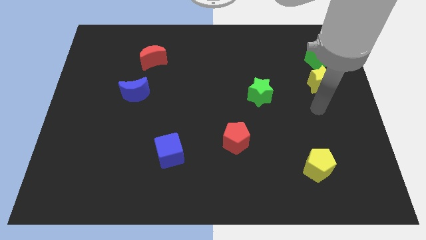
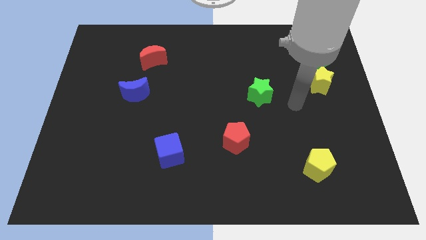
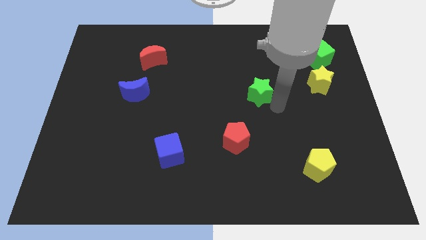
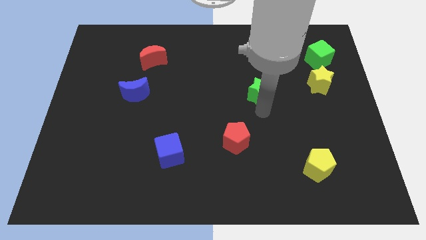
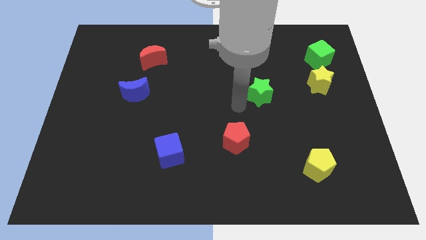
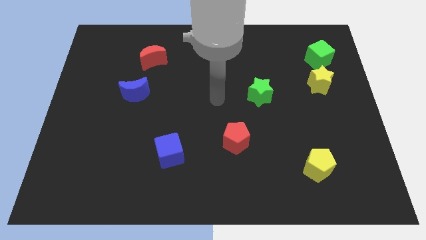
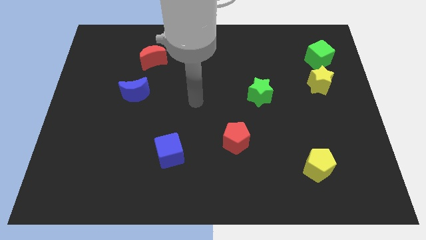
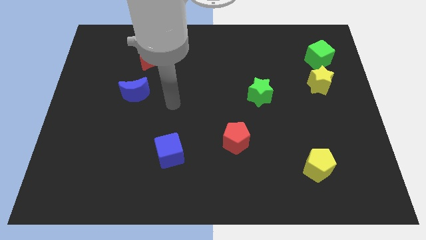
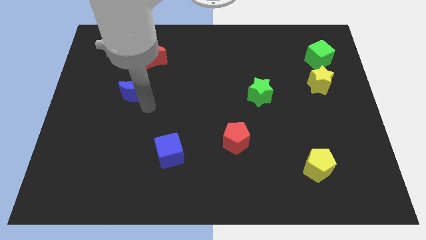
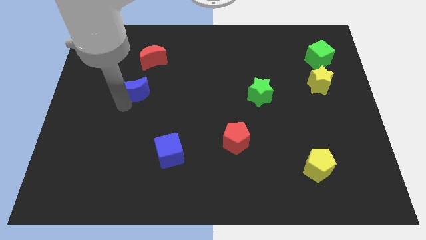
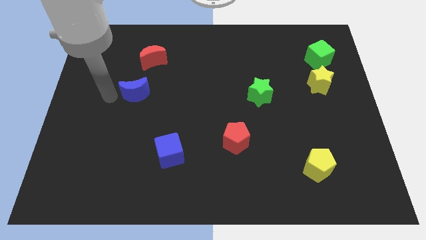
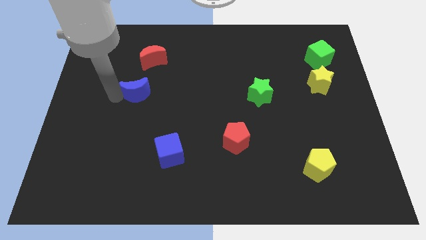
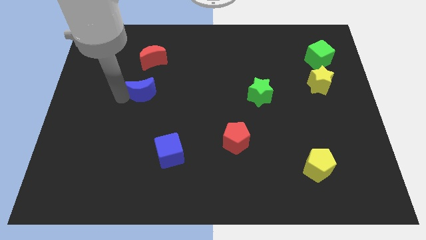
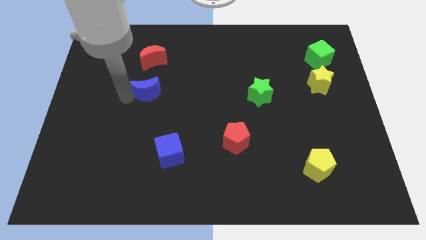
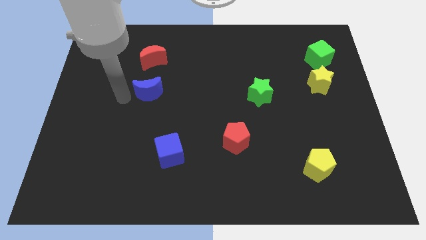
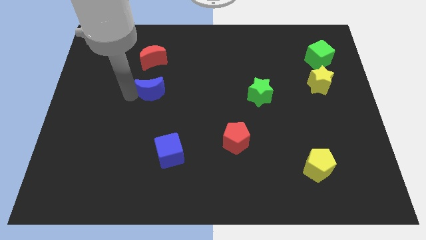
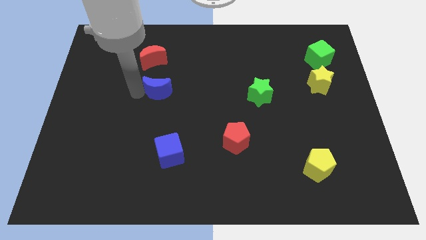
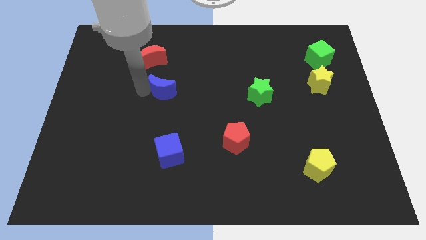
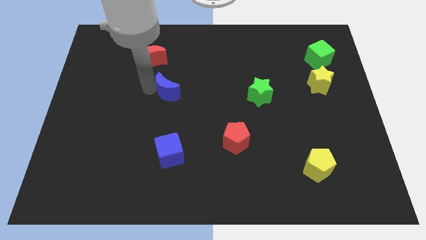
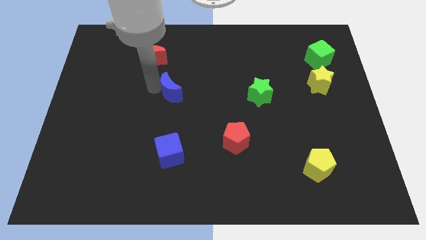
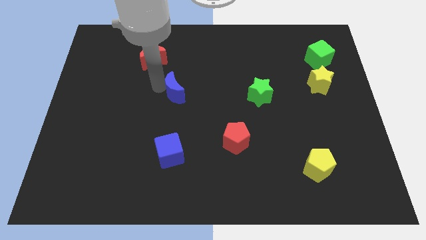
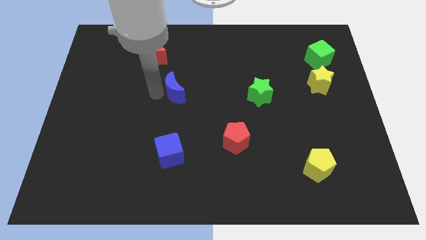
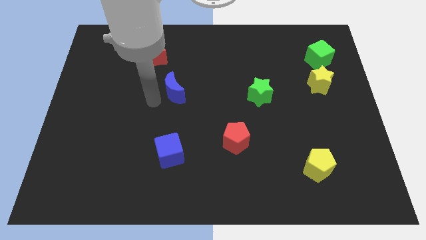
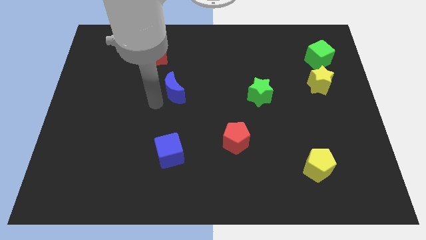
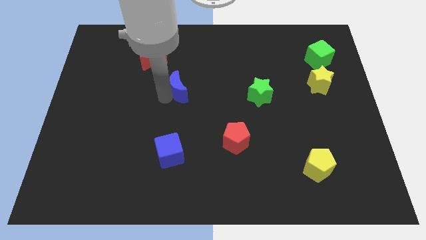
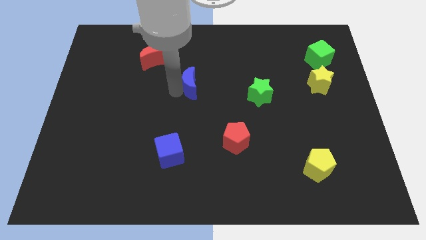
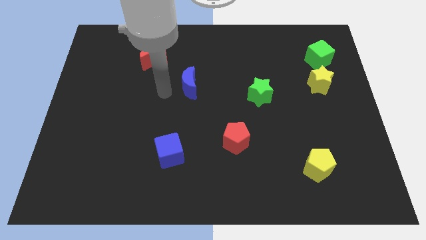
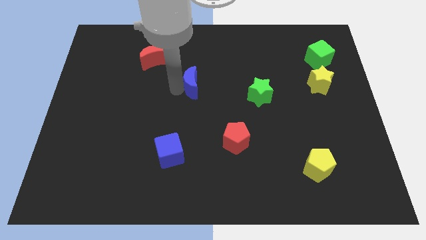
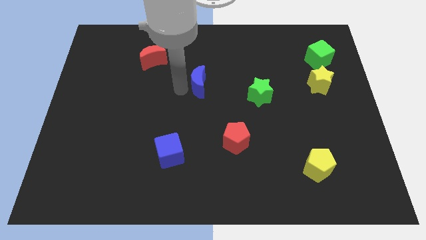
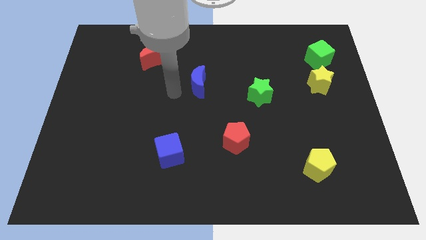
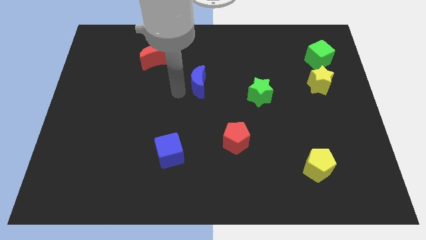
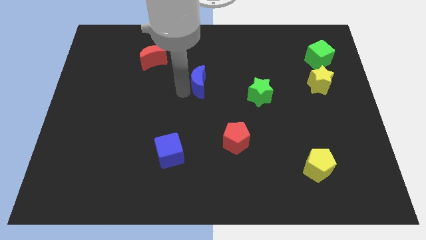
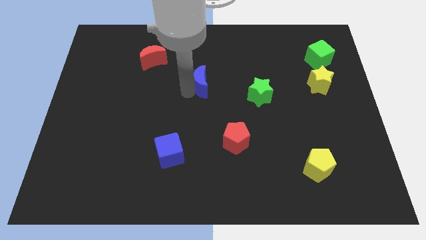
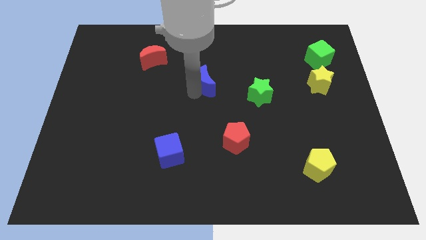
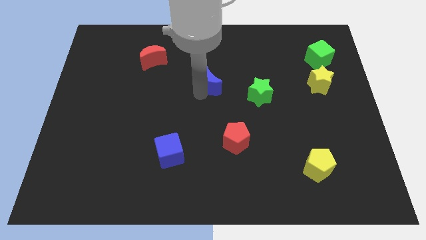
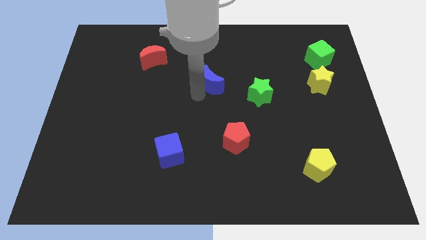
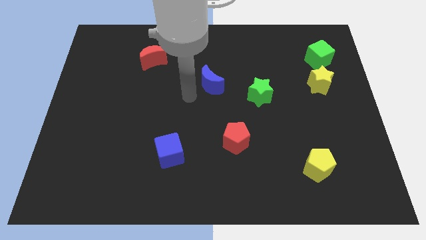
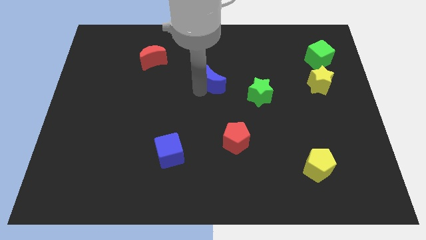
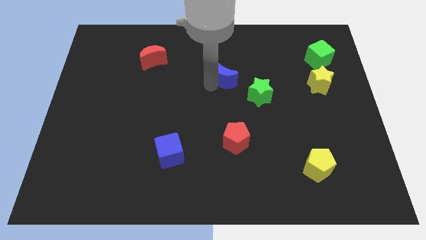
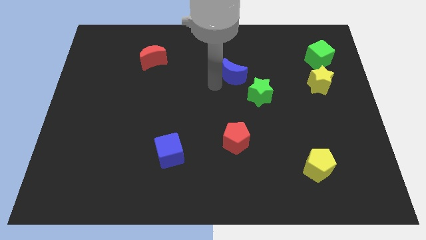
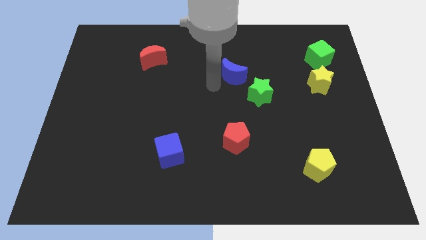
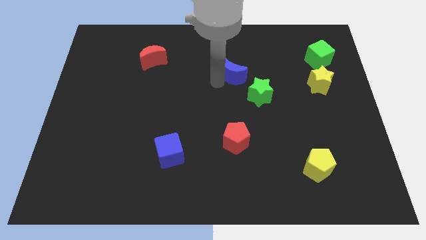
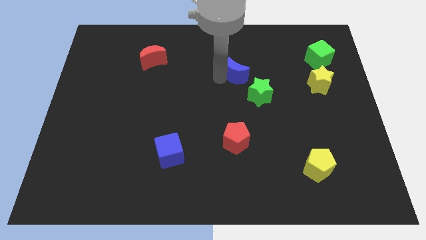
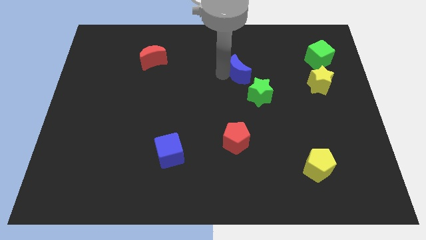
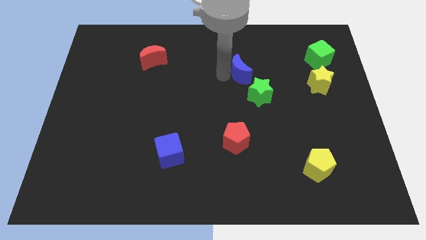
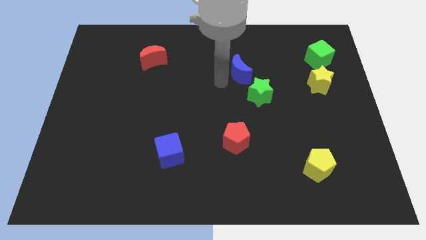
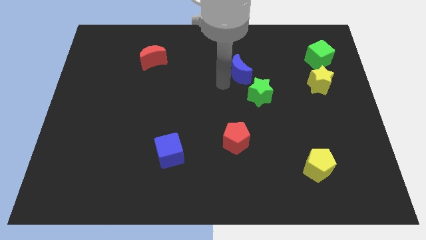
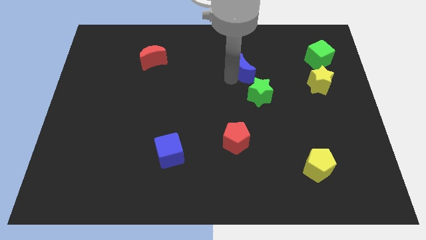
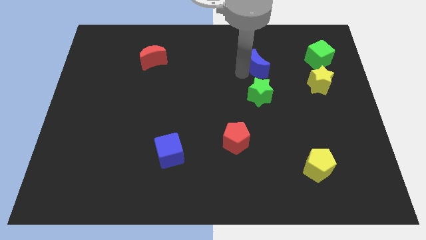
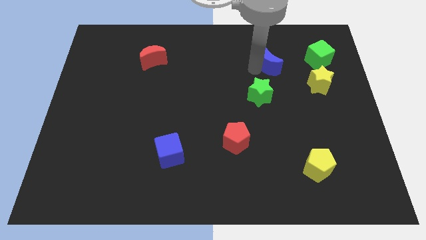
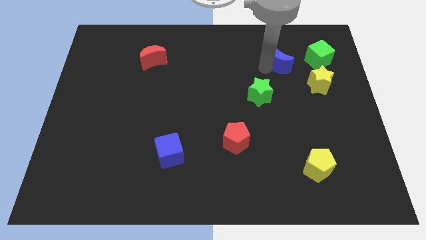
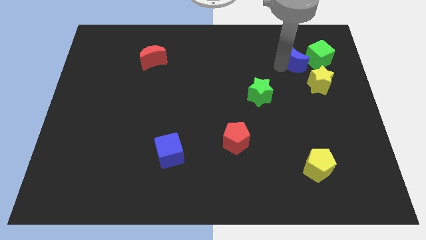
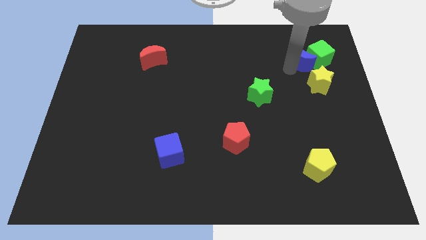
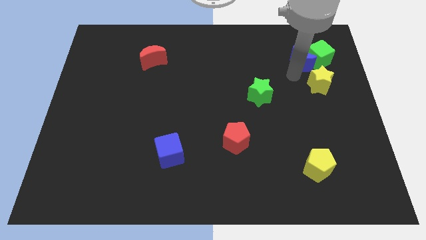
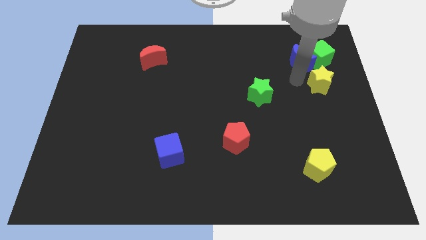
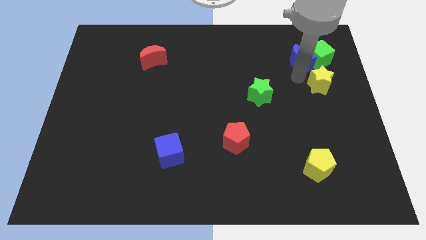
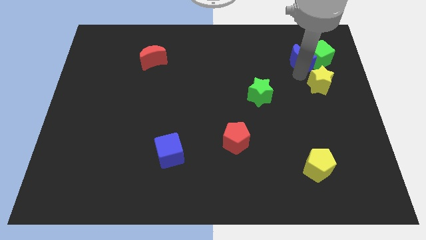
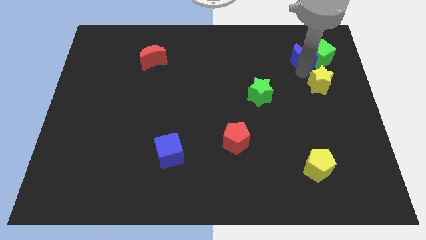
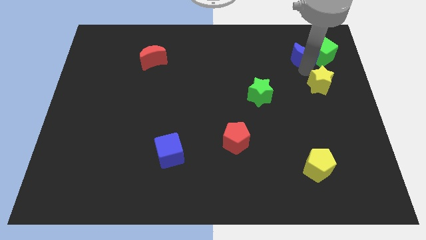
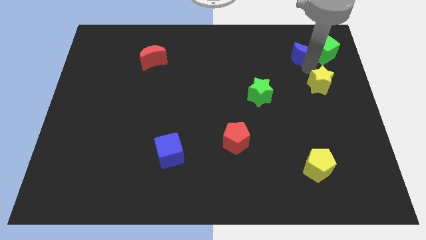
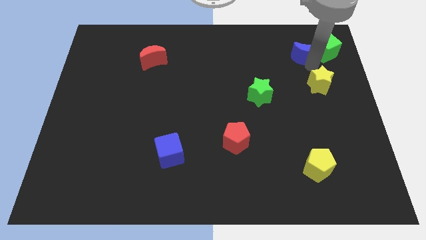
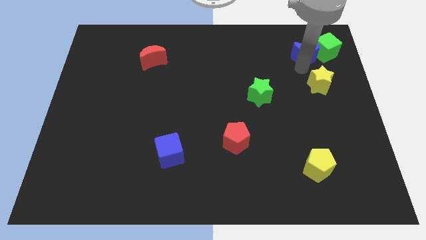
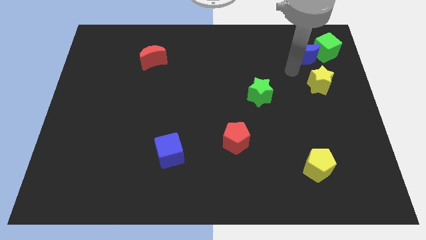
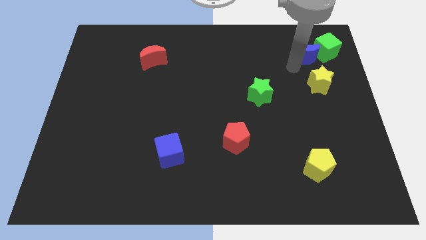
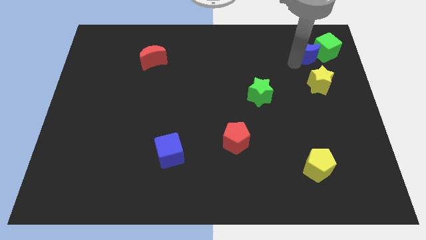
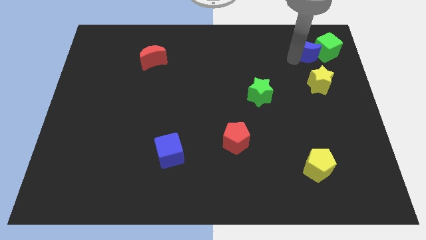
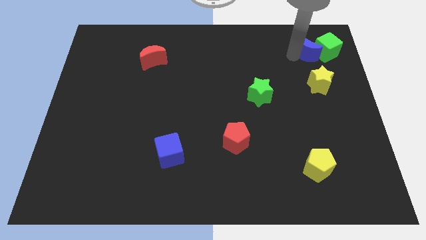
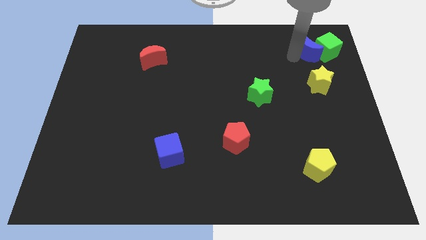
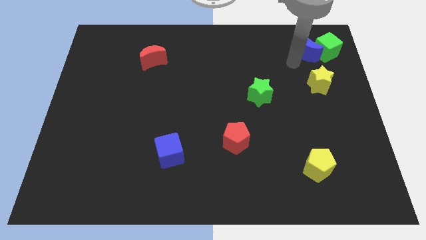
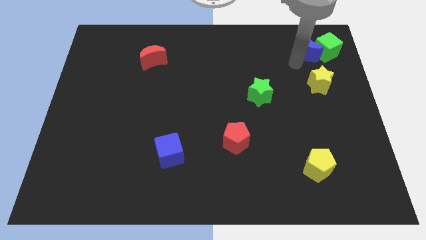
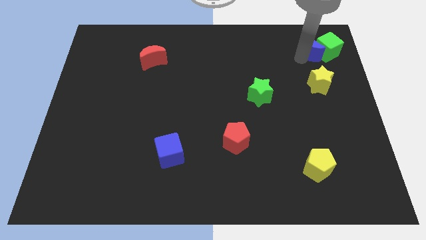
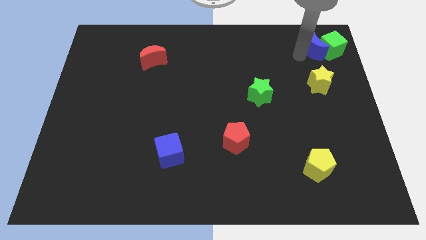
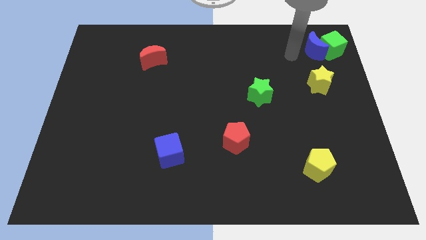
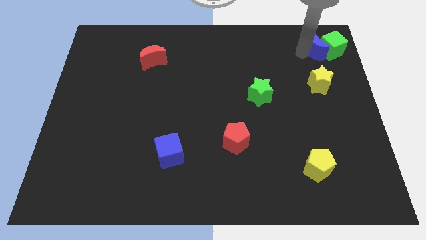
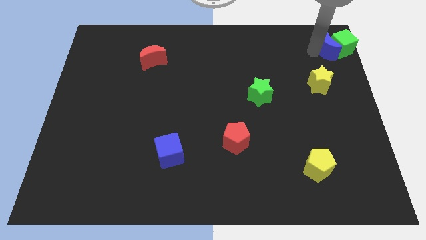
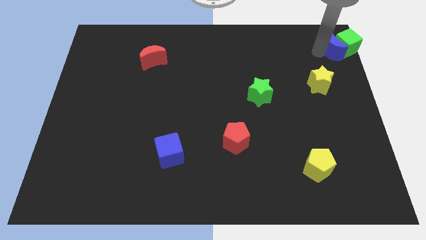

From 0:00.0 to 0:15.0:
push the blue moon to the top right
